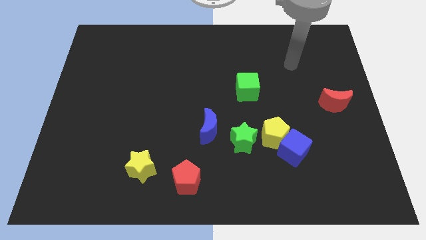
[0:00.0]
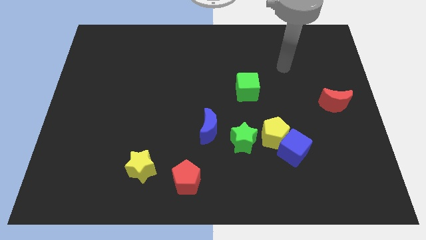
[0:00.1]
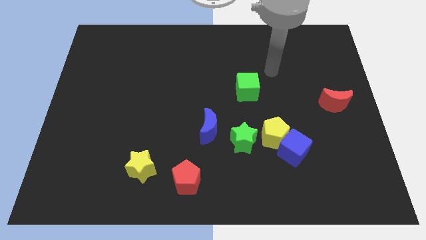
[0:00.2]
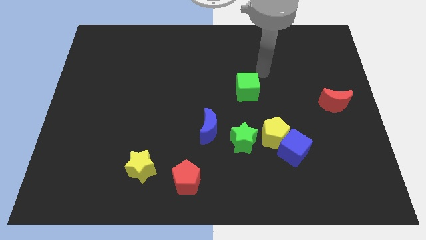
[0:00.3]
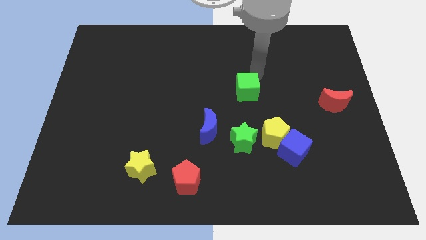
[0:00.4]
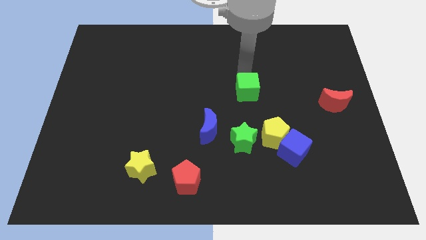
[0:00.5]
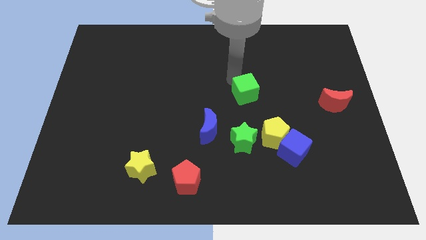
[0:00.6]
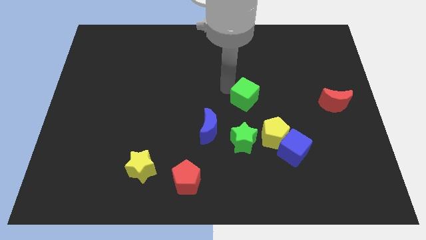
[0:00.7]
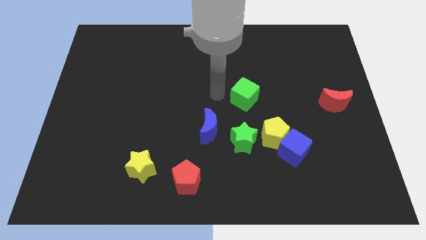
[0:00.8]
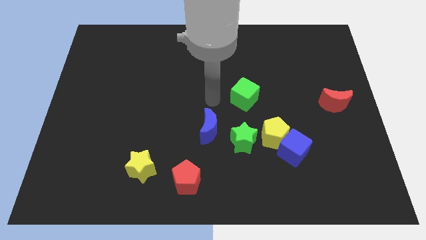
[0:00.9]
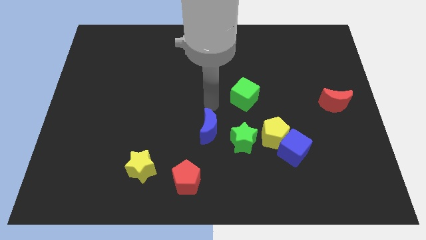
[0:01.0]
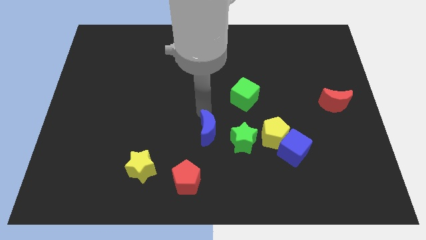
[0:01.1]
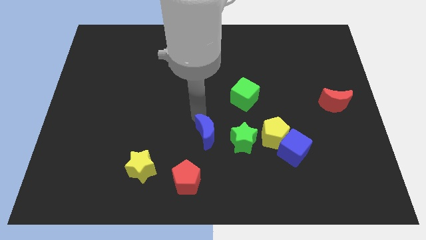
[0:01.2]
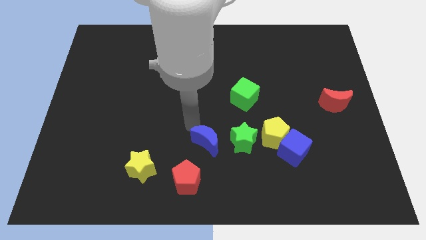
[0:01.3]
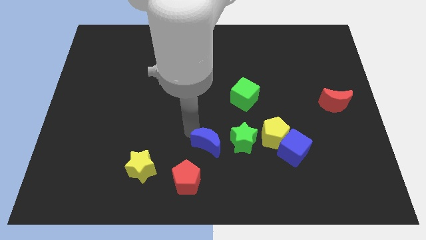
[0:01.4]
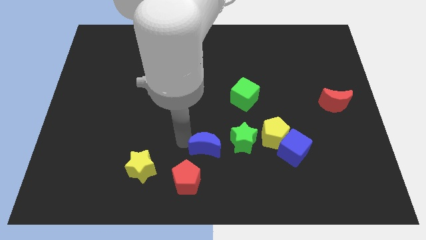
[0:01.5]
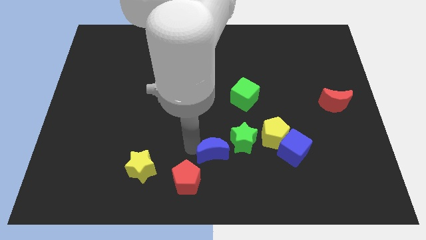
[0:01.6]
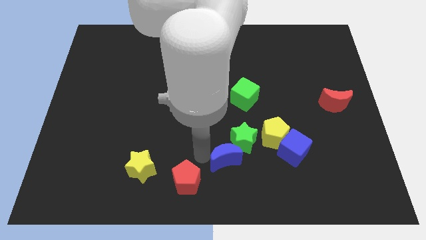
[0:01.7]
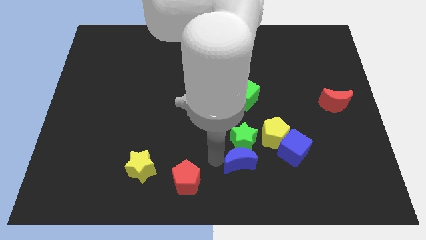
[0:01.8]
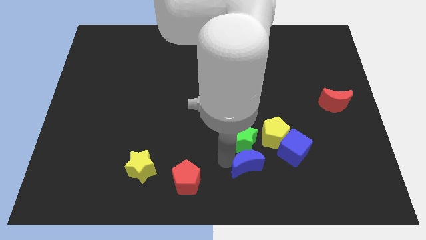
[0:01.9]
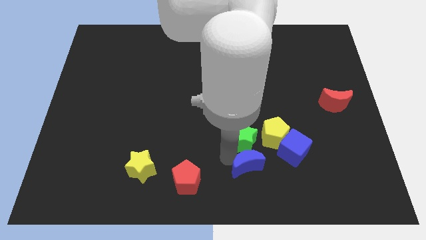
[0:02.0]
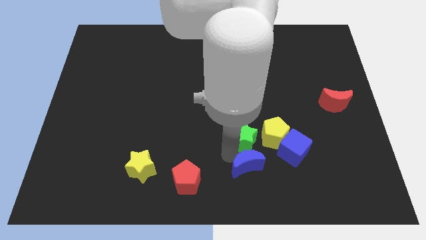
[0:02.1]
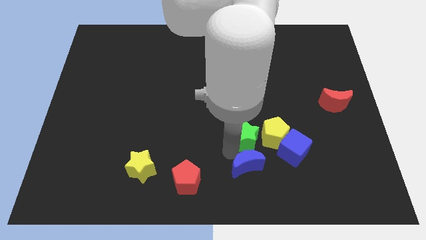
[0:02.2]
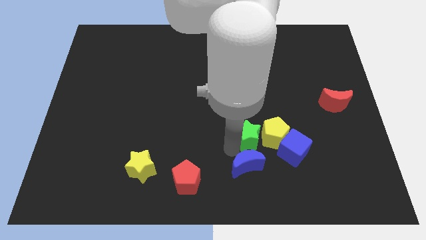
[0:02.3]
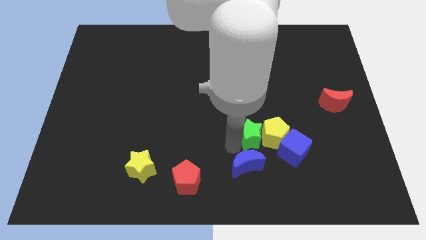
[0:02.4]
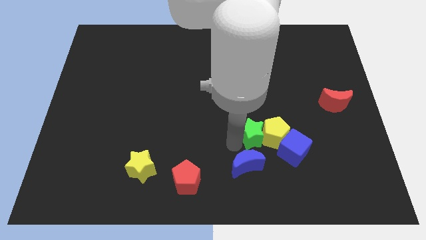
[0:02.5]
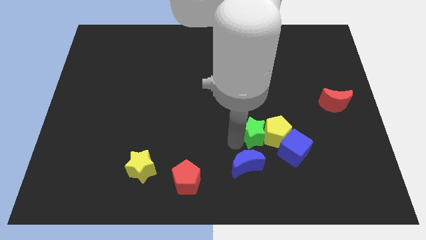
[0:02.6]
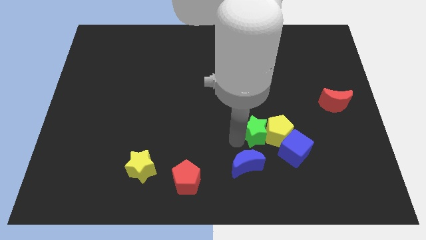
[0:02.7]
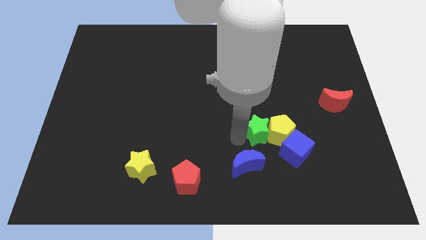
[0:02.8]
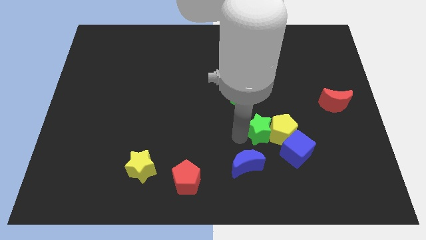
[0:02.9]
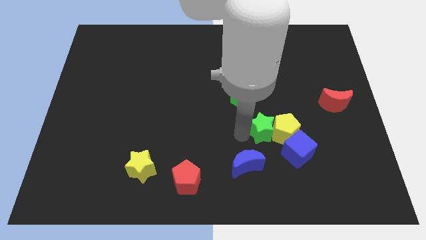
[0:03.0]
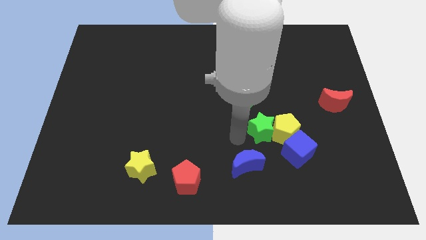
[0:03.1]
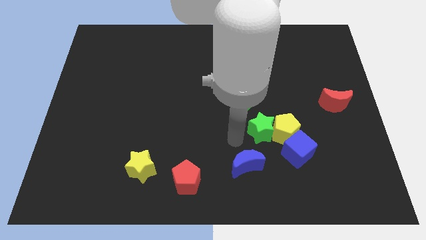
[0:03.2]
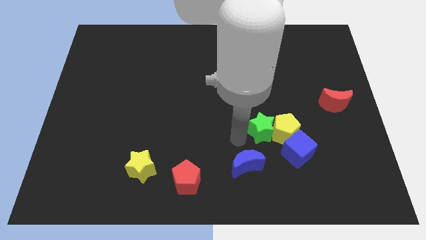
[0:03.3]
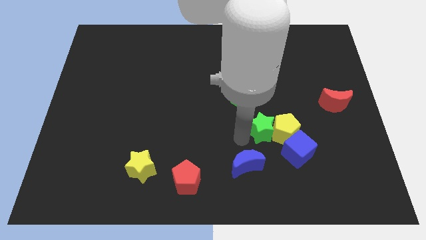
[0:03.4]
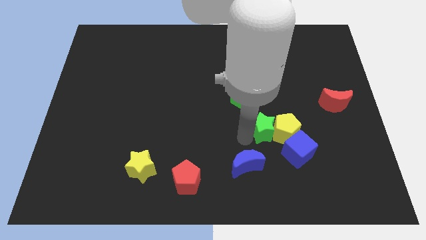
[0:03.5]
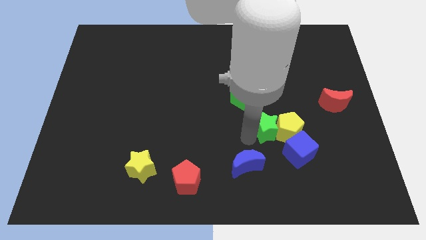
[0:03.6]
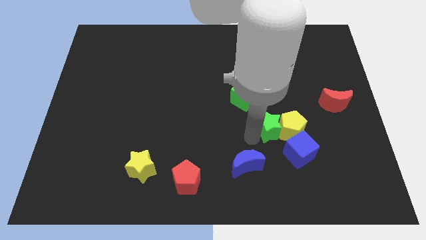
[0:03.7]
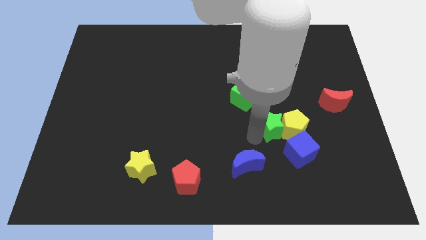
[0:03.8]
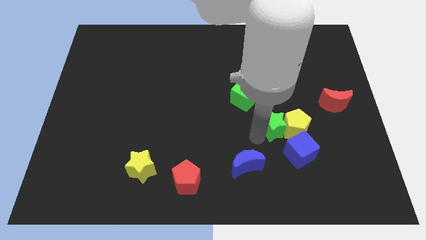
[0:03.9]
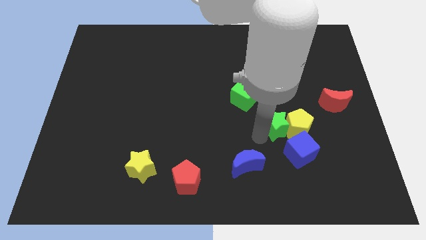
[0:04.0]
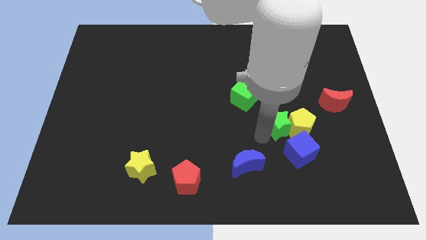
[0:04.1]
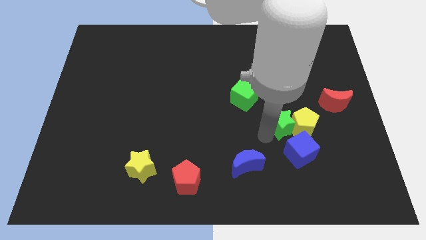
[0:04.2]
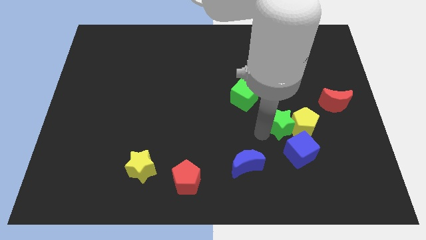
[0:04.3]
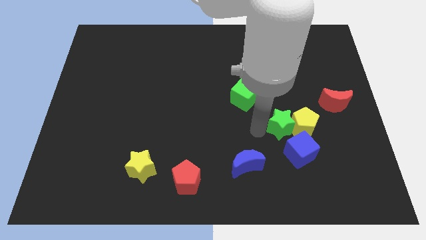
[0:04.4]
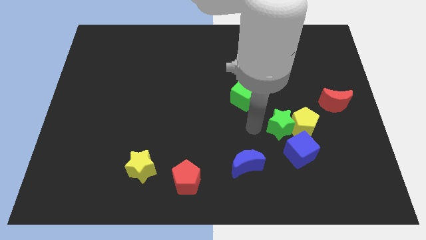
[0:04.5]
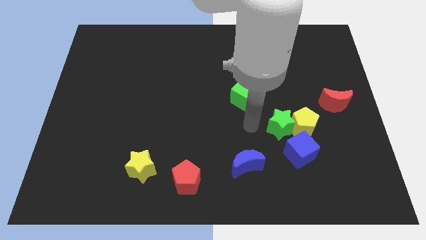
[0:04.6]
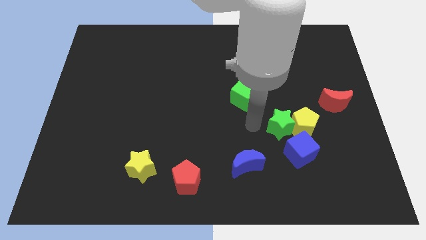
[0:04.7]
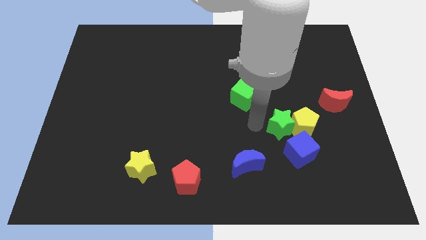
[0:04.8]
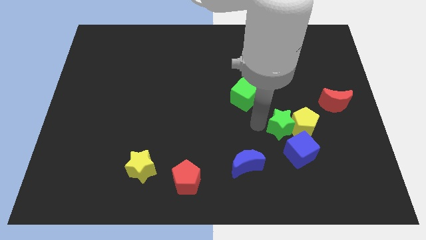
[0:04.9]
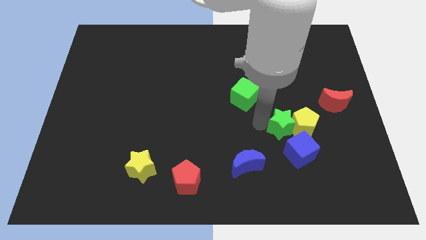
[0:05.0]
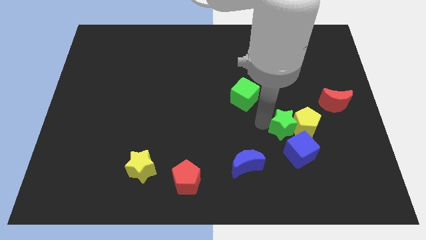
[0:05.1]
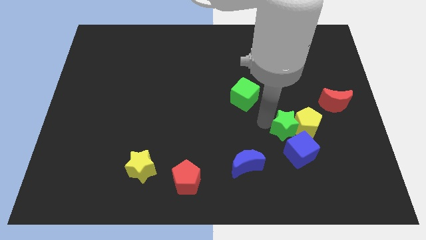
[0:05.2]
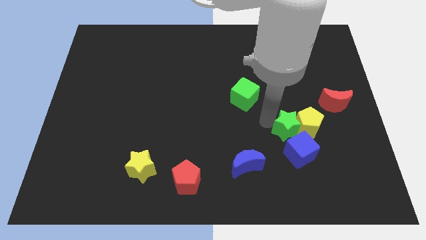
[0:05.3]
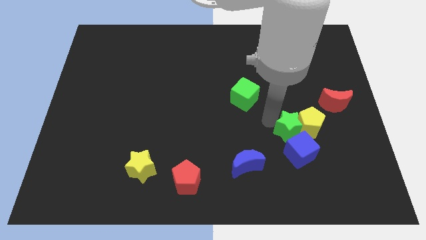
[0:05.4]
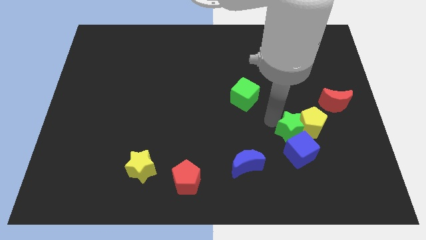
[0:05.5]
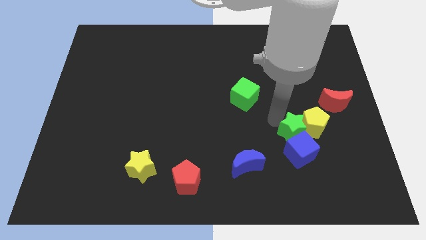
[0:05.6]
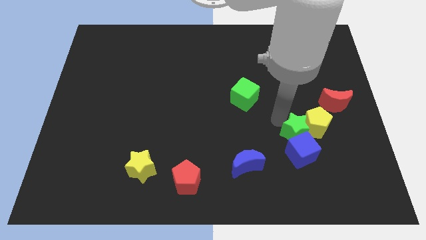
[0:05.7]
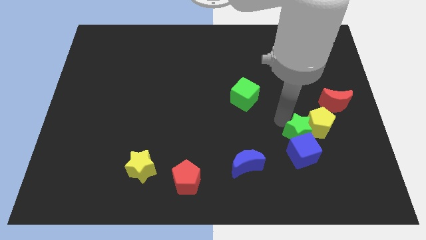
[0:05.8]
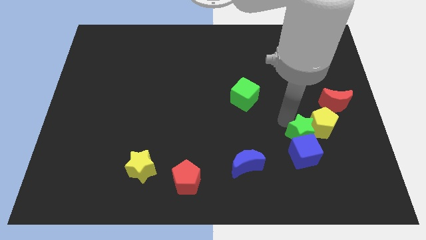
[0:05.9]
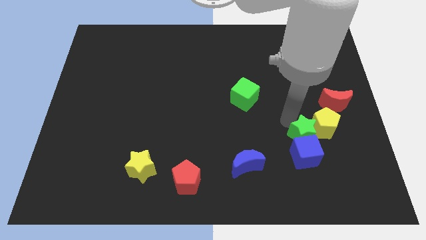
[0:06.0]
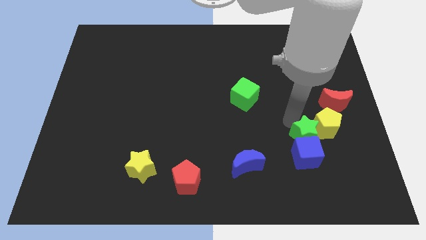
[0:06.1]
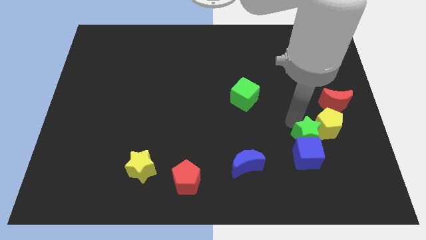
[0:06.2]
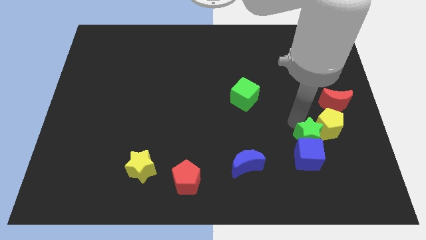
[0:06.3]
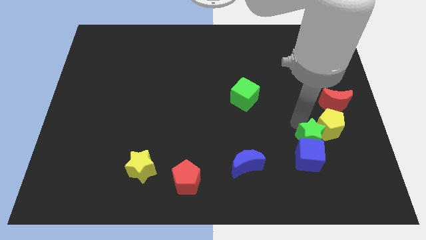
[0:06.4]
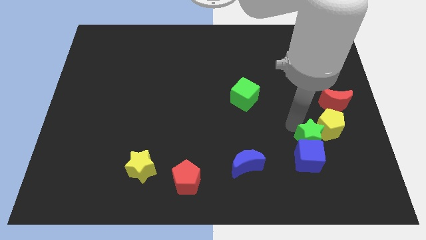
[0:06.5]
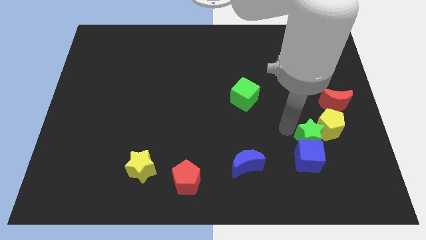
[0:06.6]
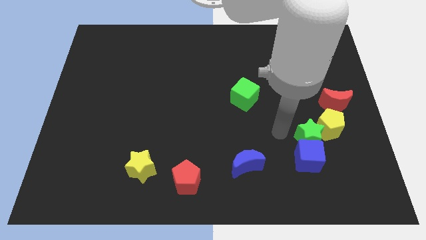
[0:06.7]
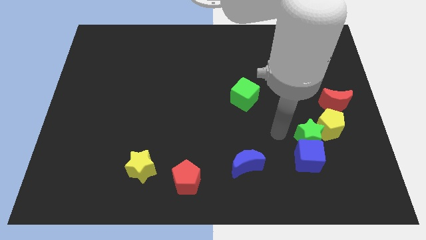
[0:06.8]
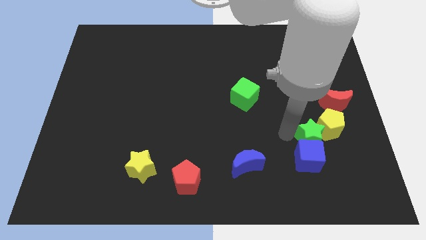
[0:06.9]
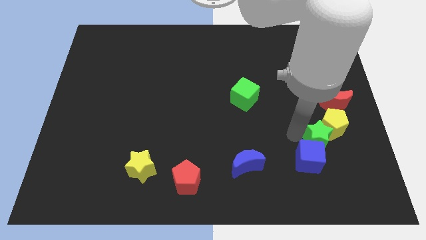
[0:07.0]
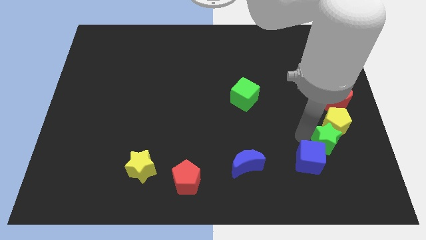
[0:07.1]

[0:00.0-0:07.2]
put the green star below the red moon
